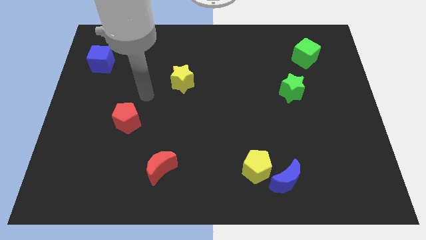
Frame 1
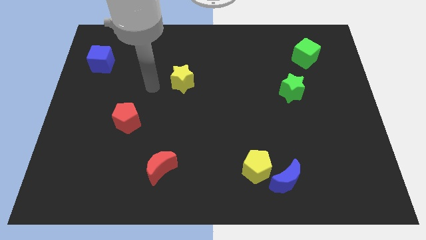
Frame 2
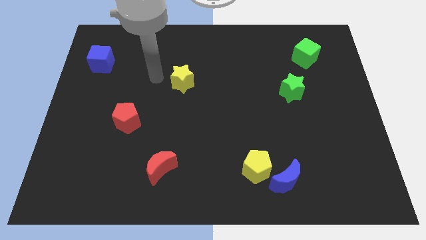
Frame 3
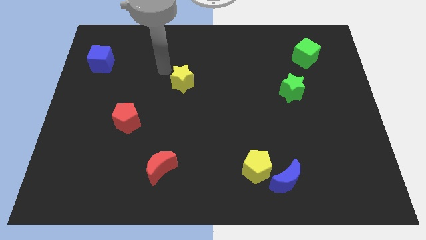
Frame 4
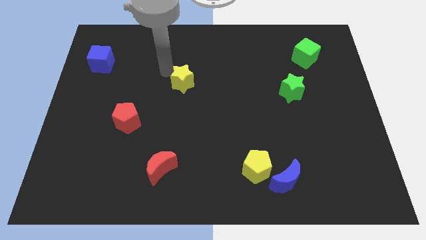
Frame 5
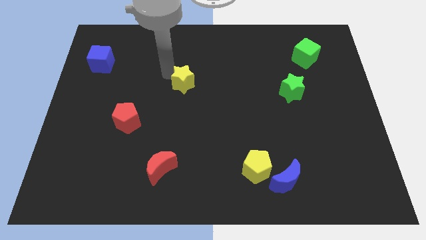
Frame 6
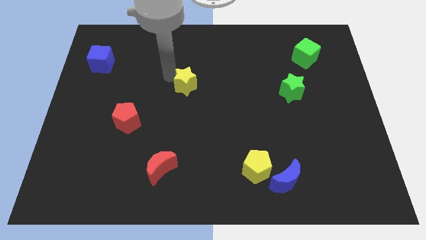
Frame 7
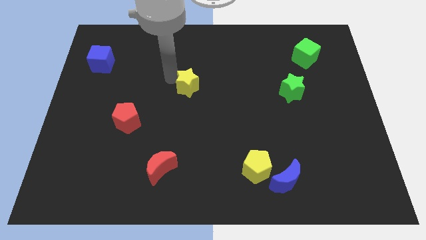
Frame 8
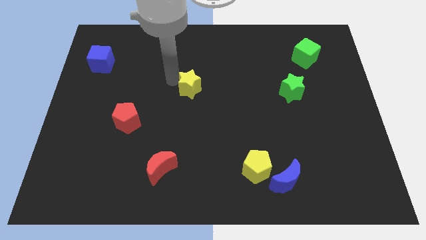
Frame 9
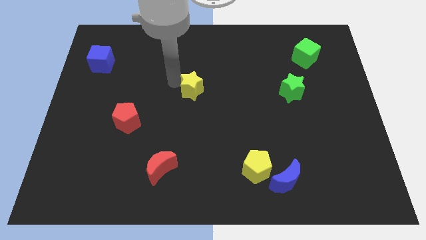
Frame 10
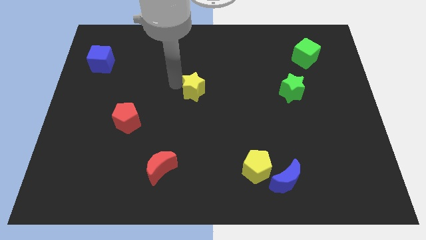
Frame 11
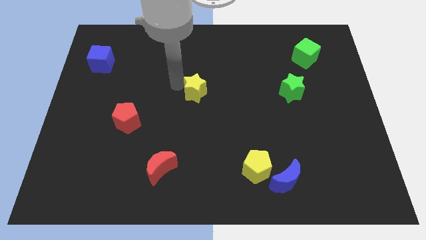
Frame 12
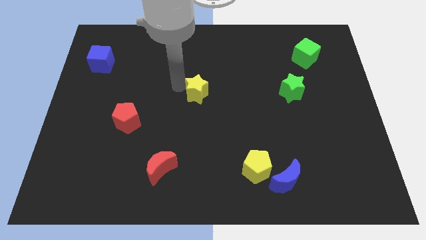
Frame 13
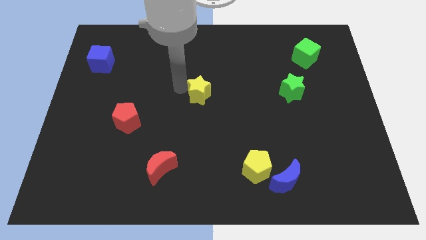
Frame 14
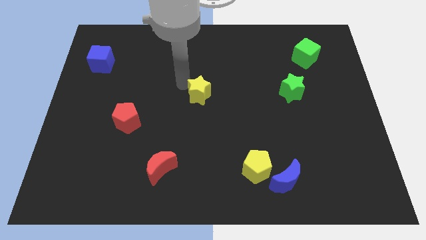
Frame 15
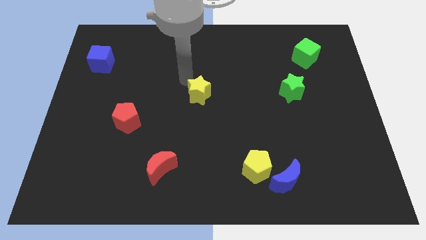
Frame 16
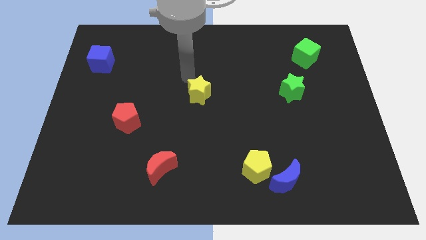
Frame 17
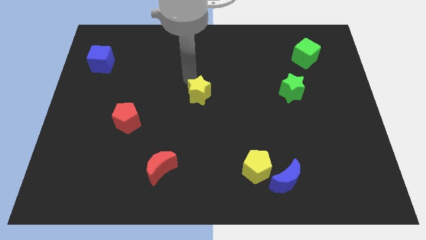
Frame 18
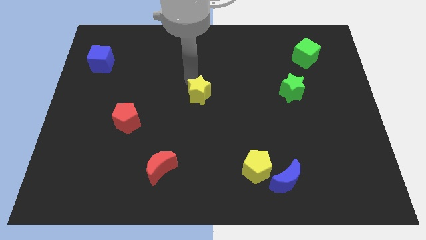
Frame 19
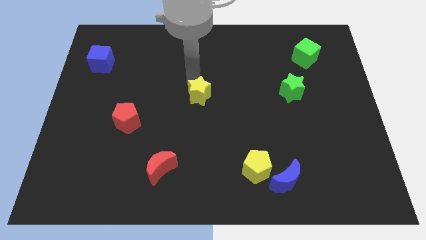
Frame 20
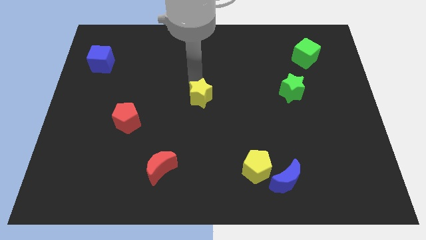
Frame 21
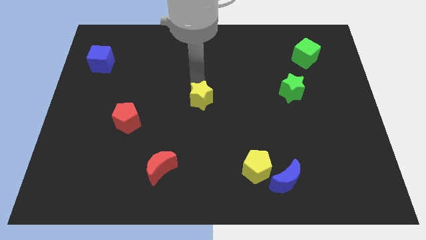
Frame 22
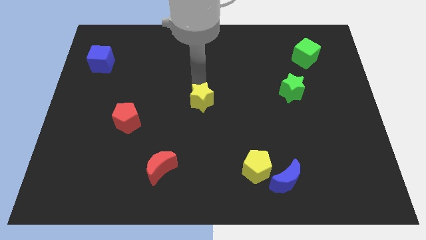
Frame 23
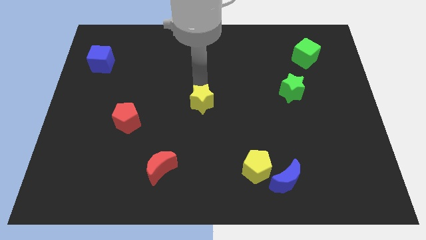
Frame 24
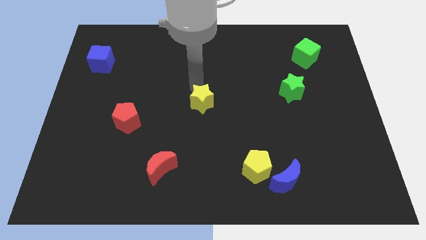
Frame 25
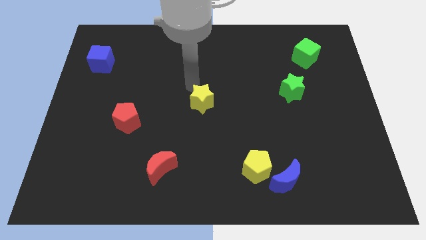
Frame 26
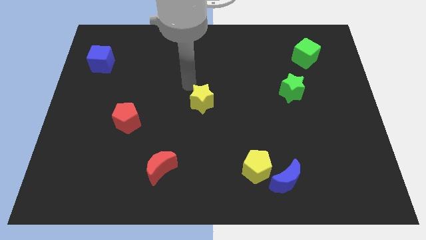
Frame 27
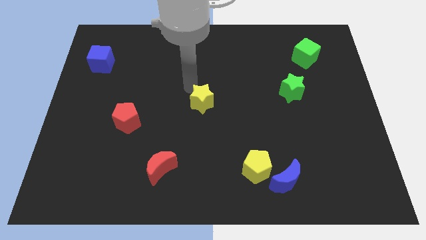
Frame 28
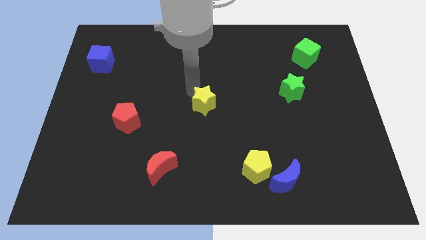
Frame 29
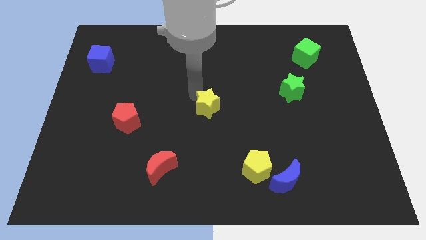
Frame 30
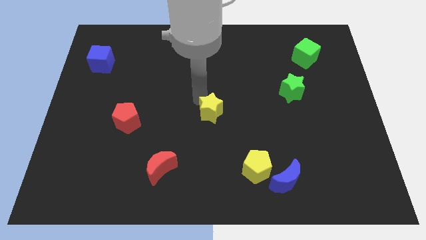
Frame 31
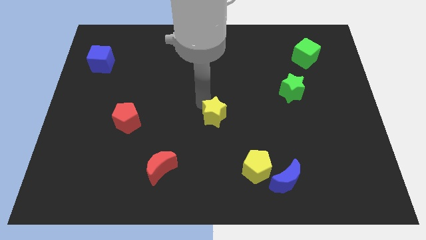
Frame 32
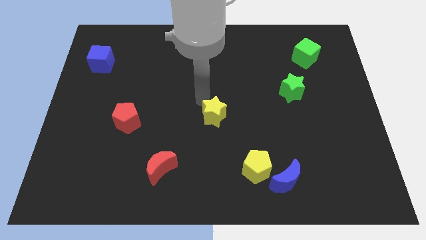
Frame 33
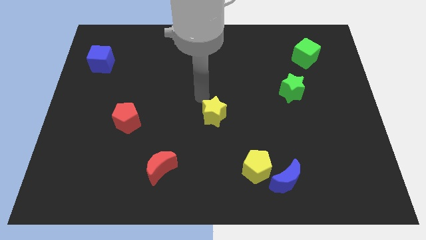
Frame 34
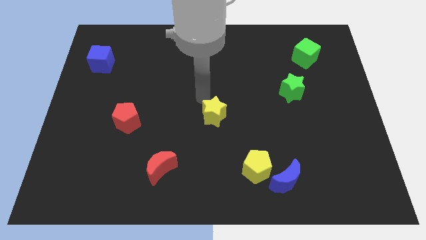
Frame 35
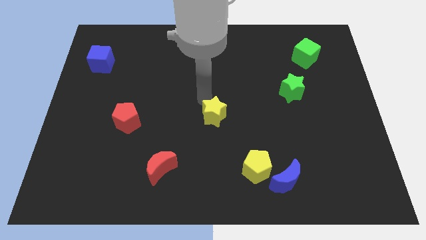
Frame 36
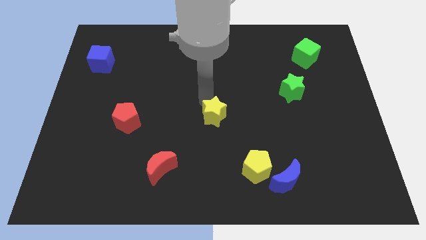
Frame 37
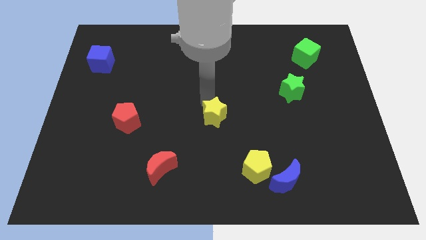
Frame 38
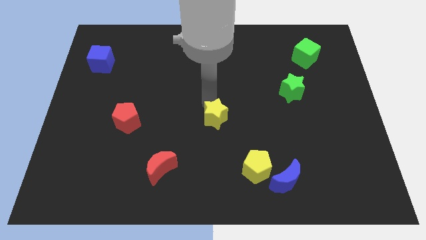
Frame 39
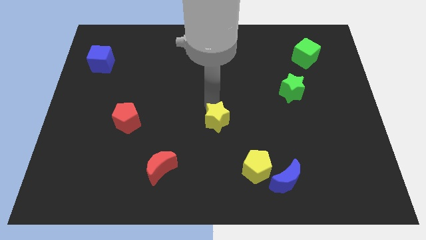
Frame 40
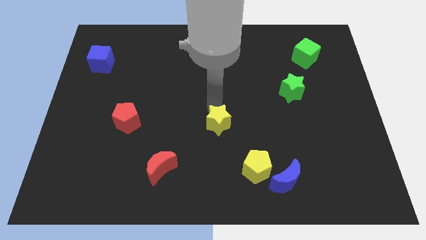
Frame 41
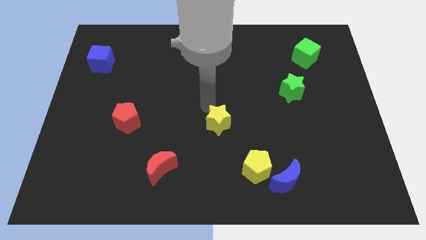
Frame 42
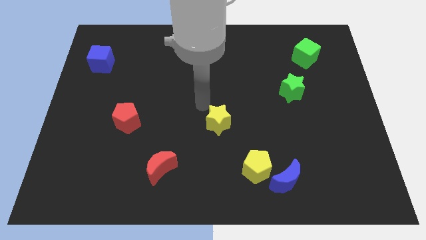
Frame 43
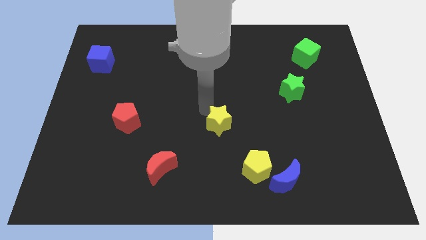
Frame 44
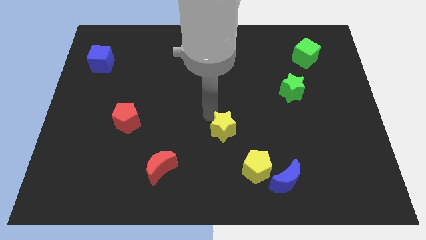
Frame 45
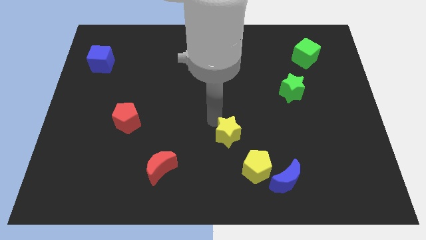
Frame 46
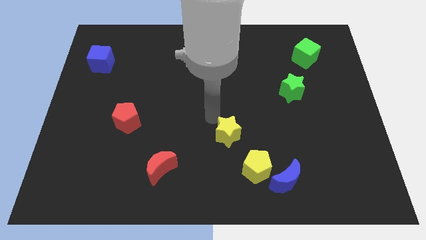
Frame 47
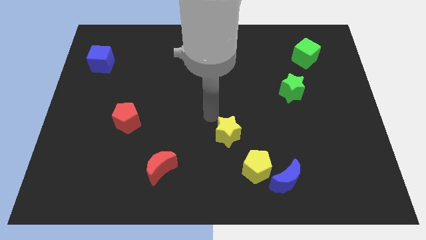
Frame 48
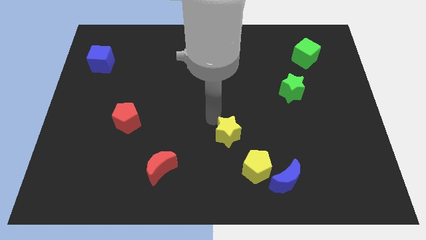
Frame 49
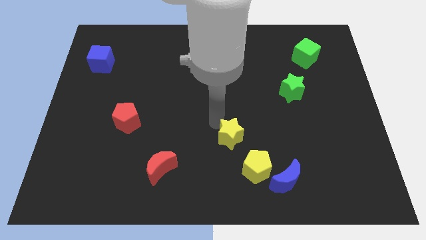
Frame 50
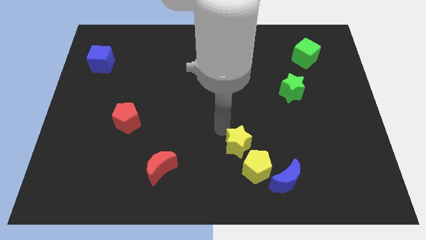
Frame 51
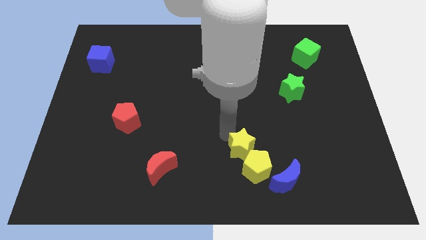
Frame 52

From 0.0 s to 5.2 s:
put the yellow star to the yellow pentagon

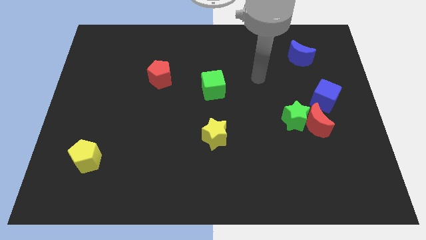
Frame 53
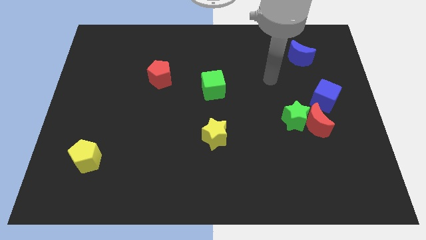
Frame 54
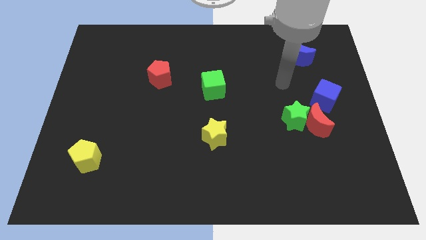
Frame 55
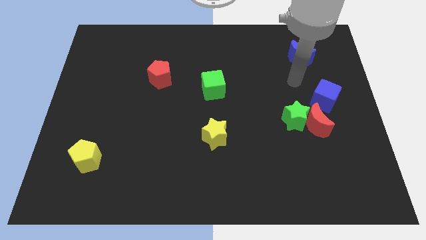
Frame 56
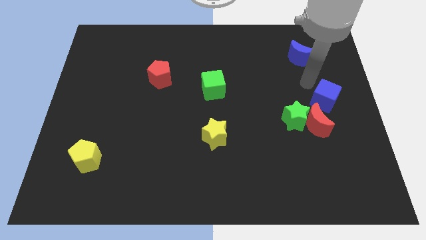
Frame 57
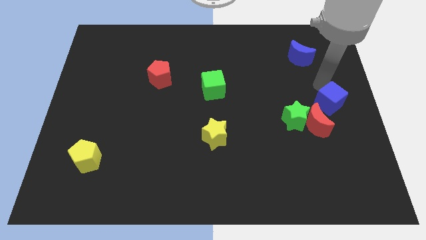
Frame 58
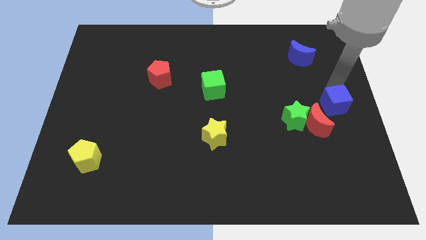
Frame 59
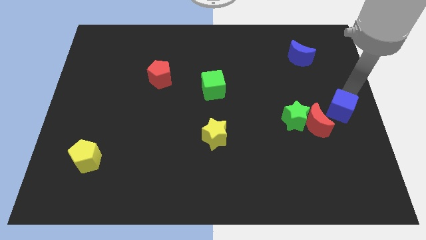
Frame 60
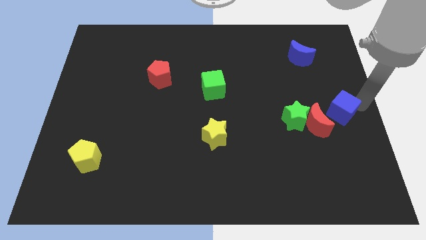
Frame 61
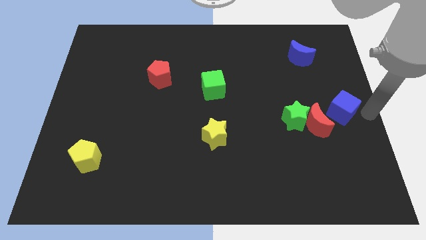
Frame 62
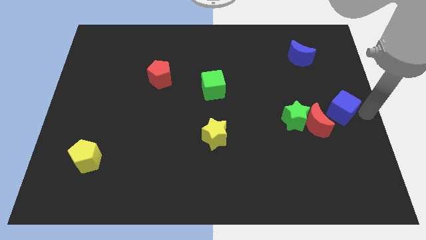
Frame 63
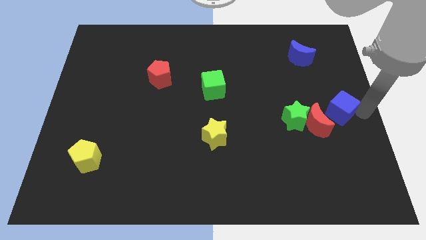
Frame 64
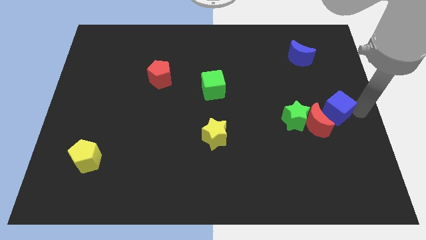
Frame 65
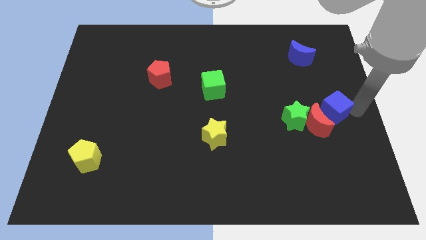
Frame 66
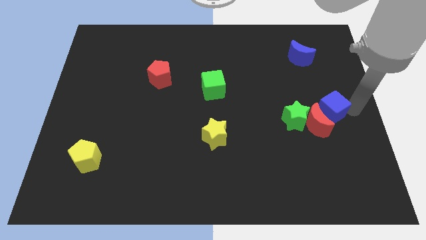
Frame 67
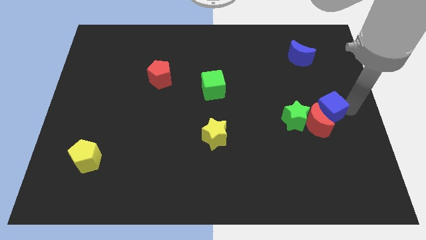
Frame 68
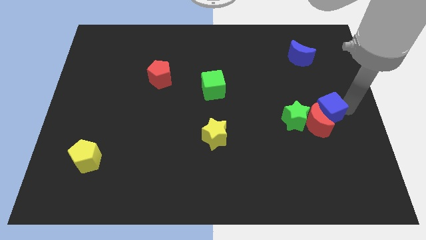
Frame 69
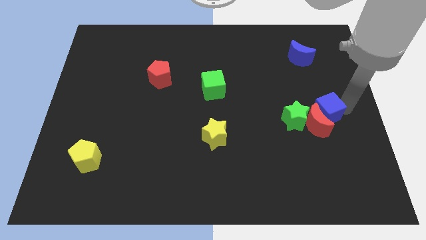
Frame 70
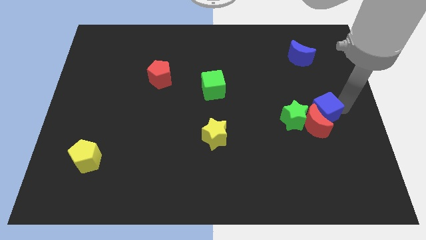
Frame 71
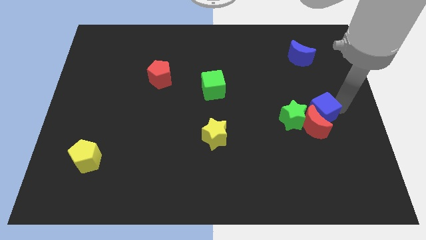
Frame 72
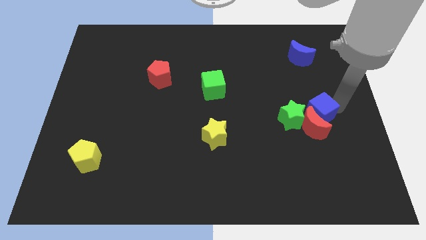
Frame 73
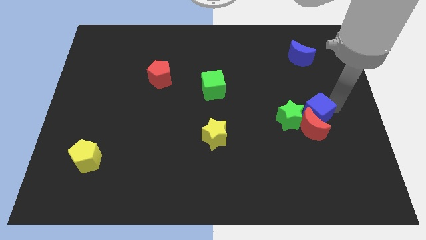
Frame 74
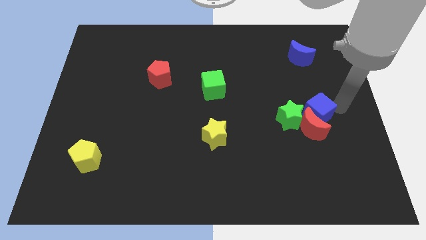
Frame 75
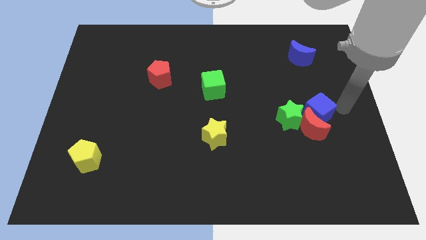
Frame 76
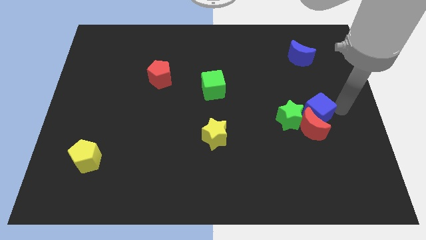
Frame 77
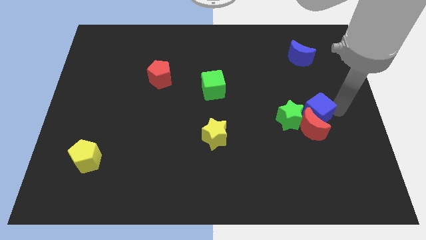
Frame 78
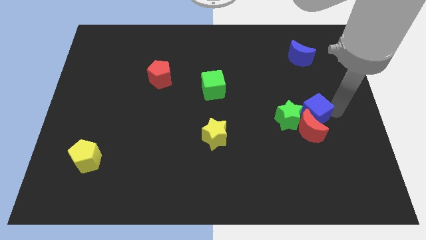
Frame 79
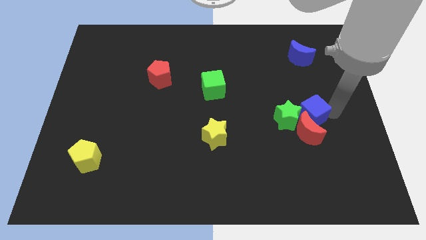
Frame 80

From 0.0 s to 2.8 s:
put the blue cube next to the green star
